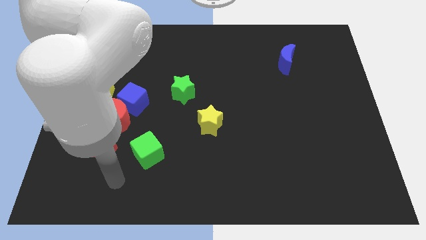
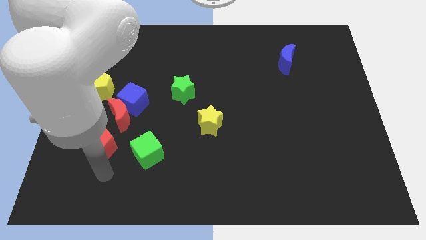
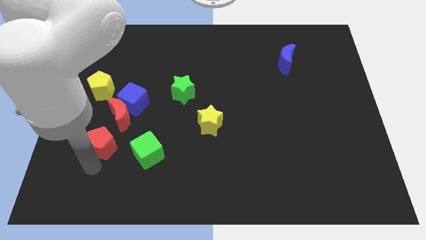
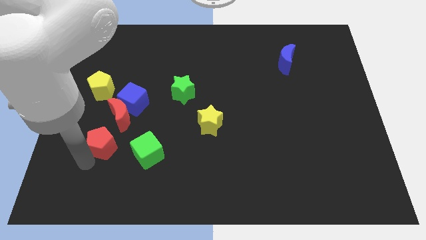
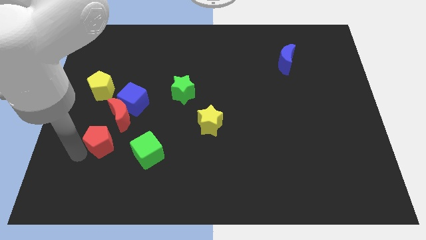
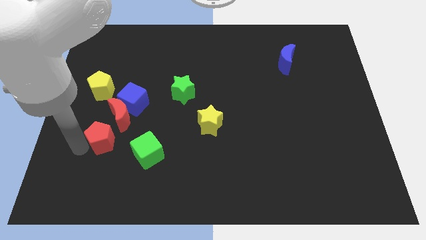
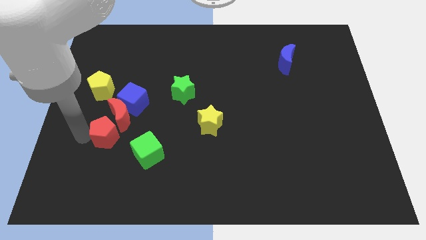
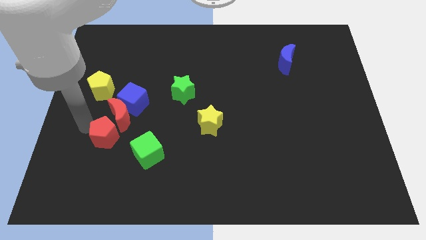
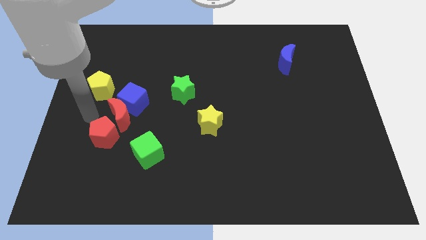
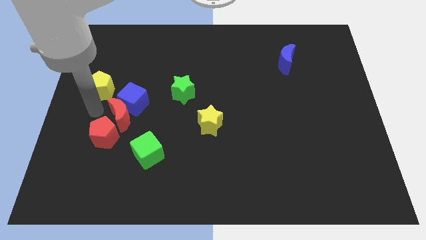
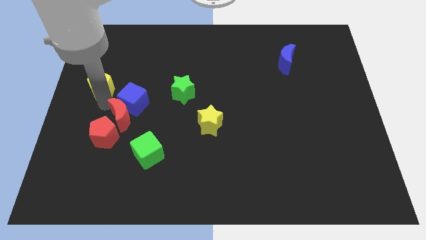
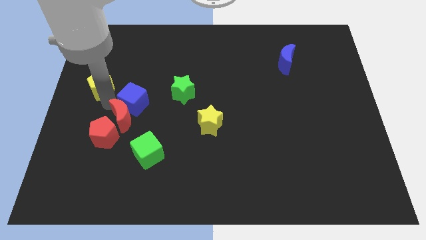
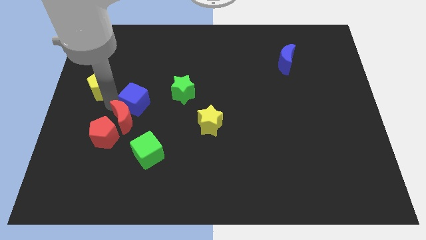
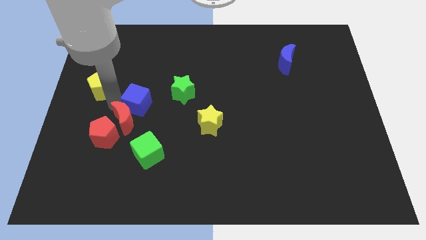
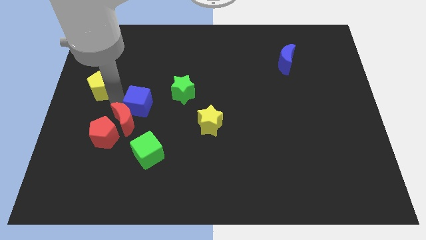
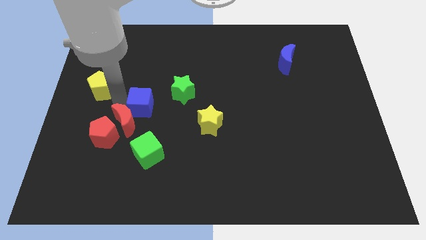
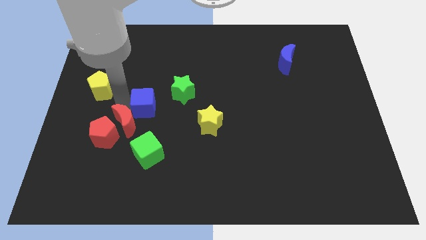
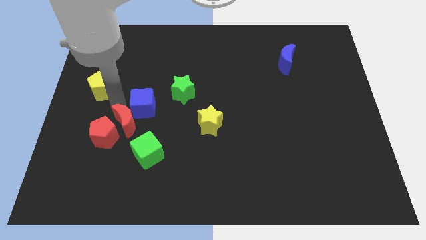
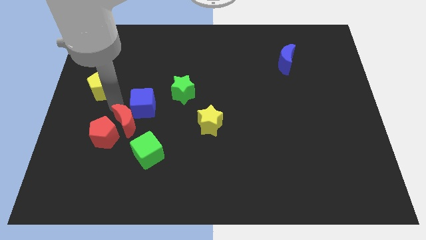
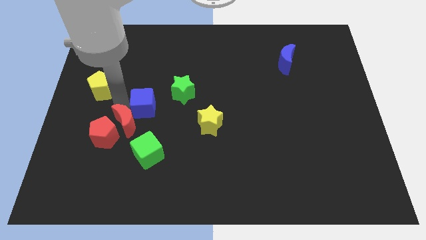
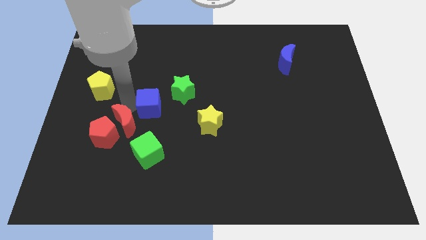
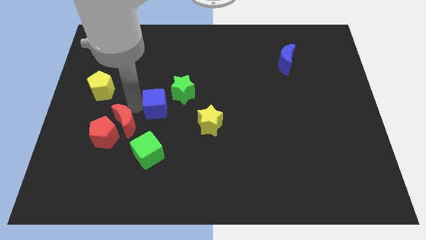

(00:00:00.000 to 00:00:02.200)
pull the blue cube apart from the red moon and yellow pentagon

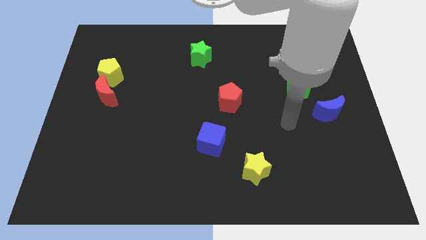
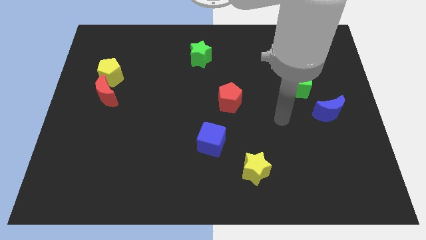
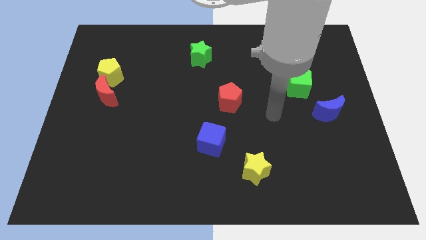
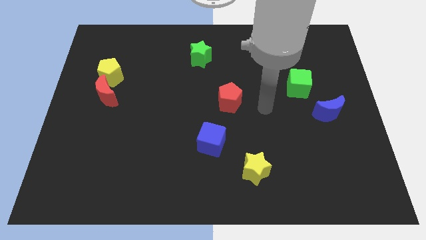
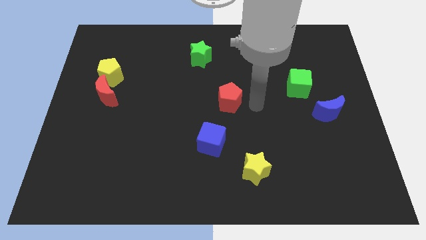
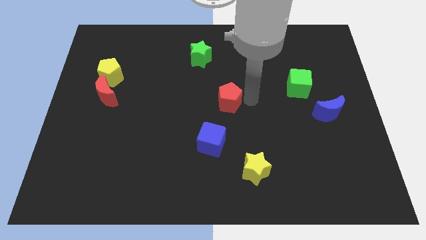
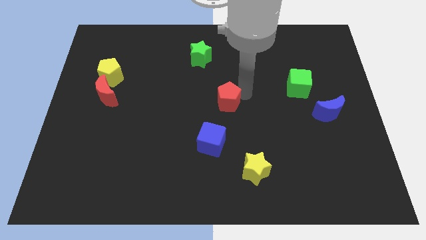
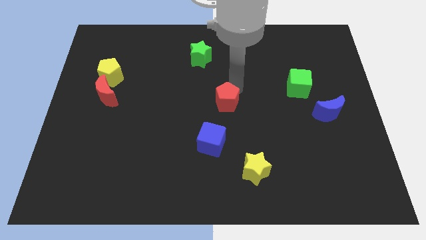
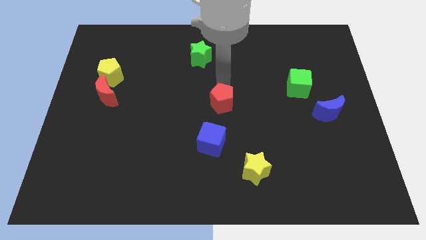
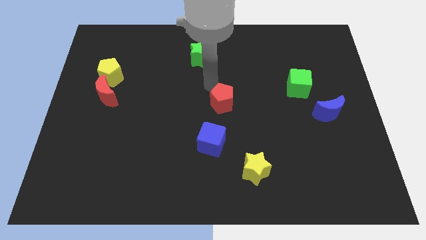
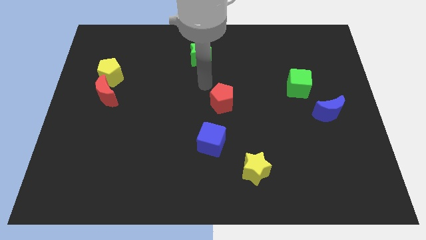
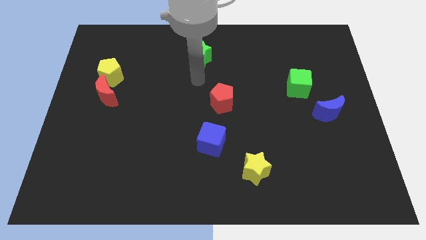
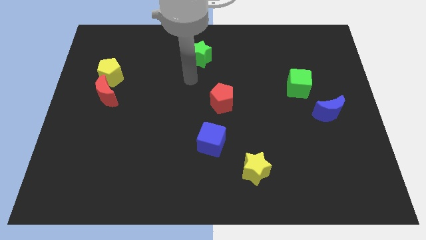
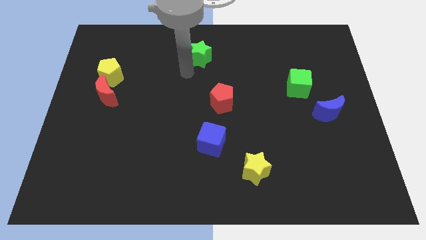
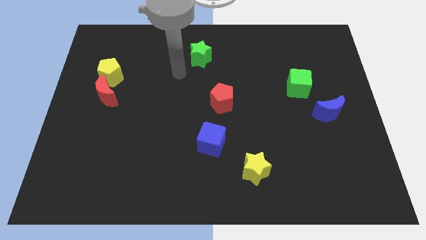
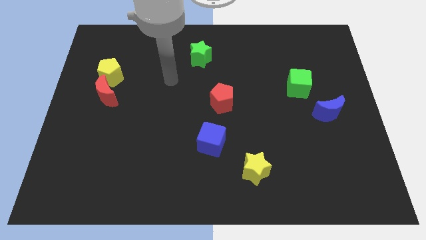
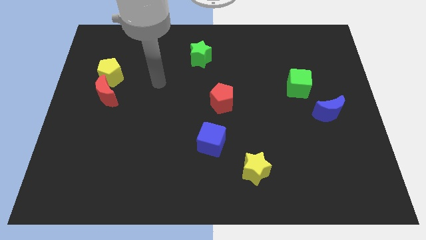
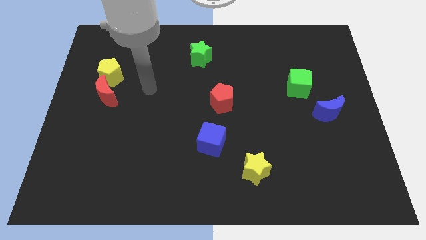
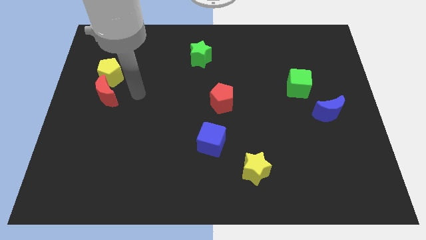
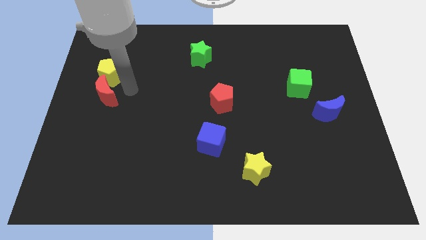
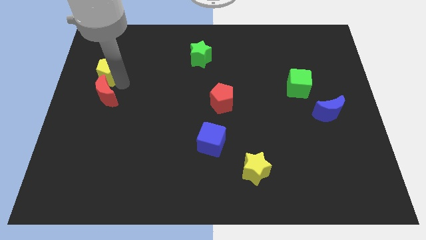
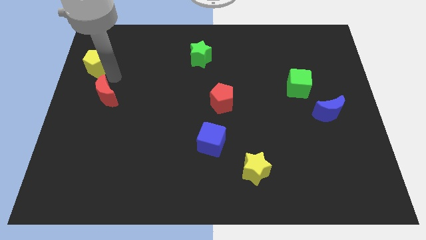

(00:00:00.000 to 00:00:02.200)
separate the red moon from the yellow pentagon

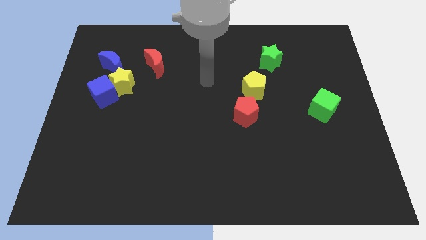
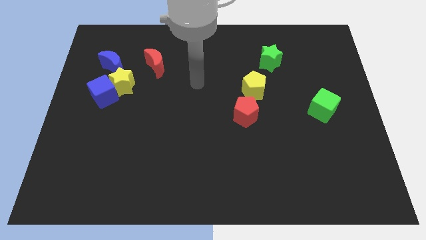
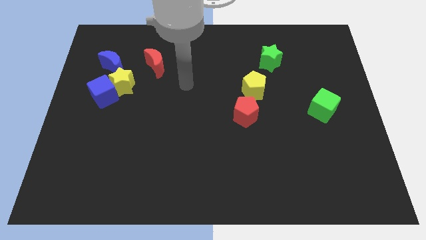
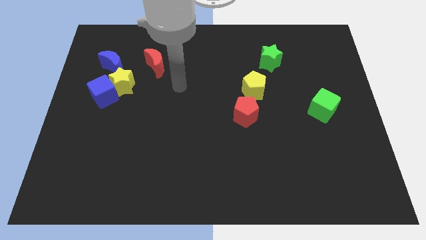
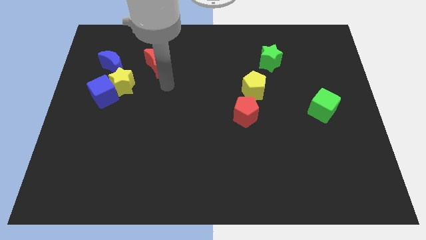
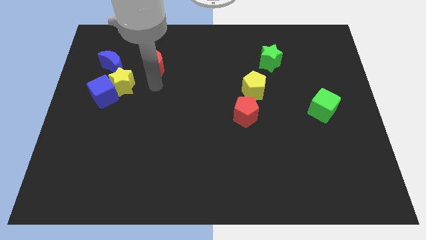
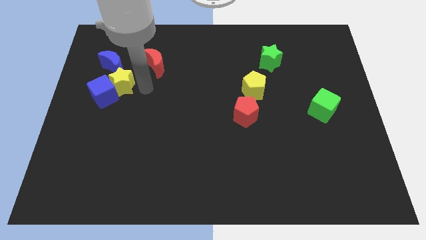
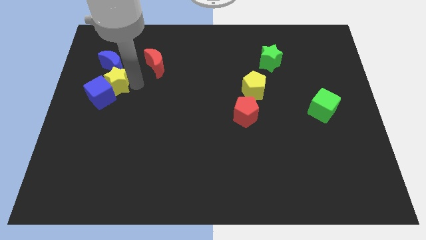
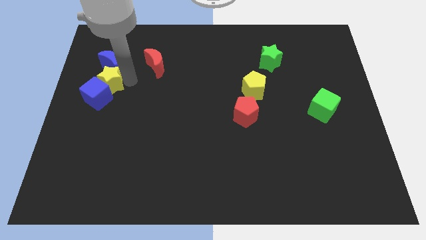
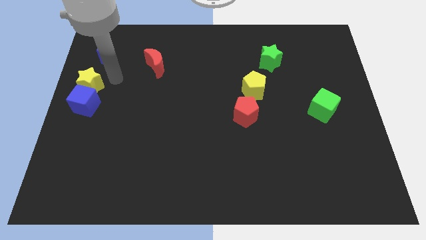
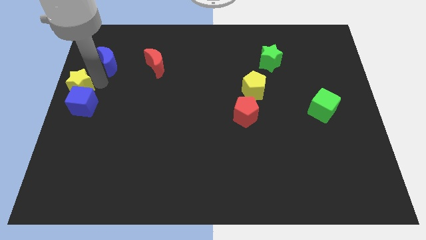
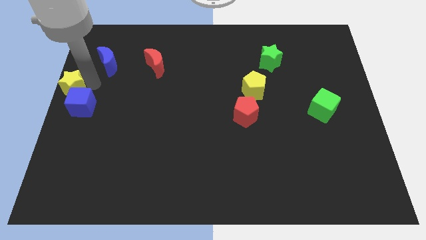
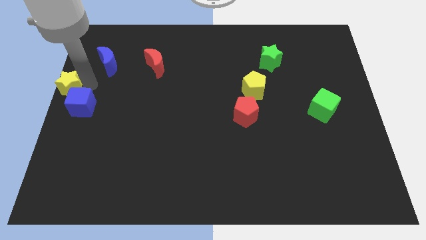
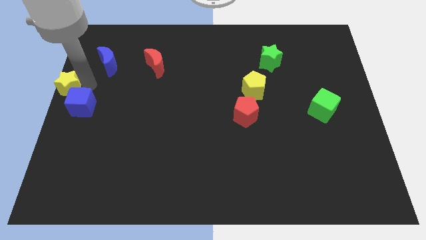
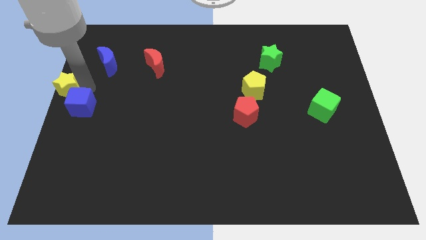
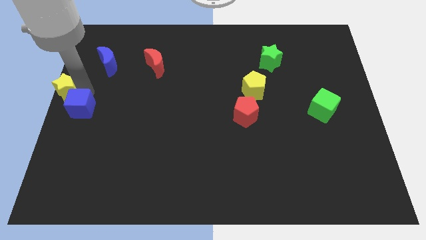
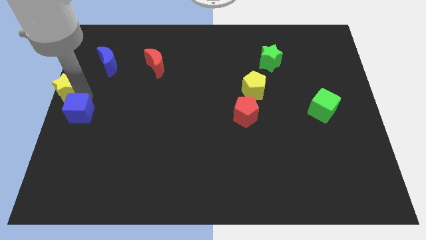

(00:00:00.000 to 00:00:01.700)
separate the blue cube from the yellow star and blue moon

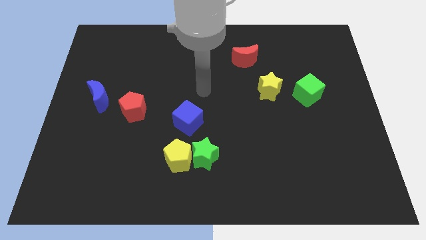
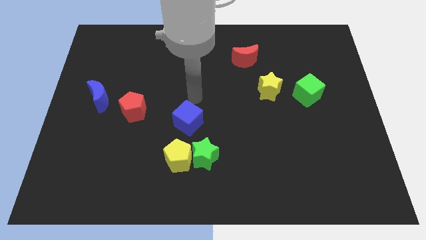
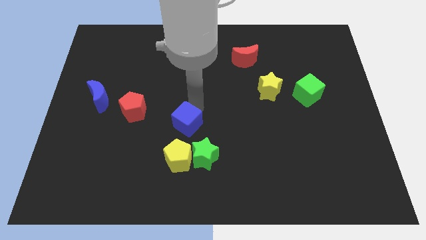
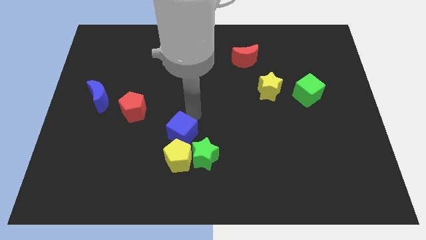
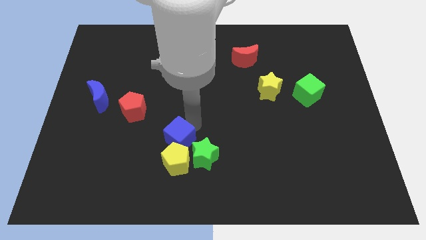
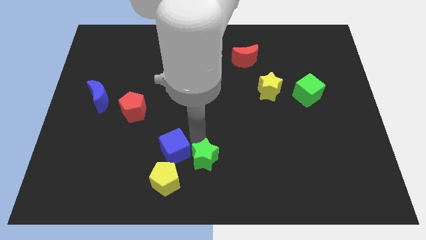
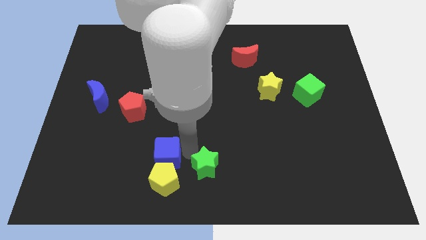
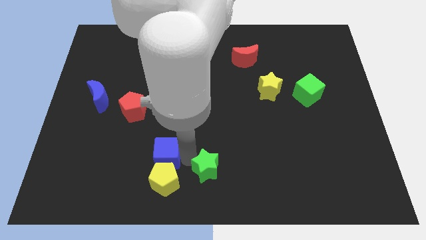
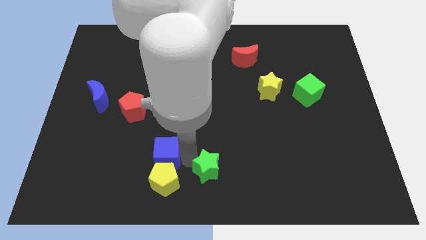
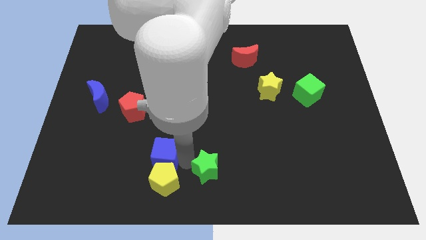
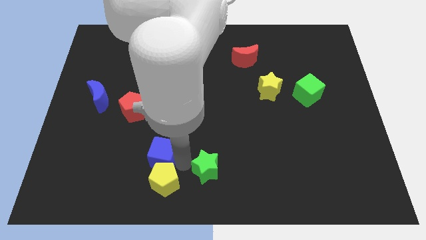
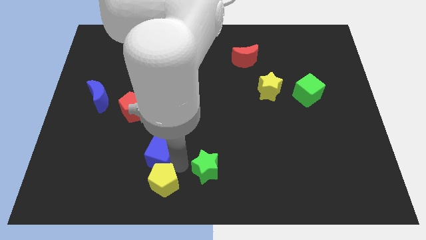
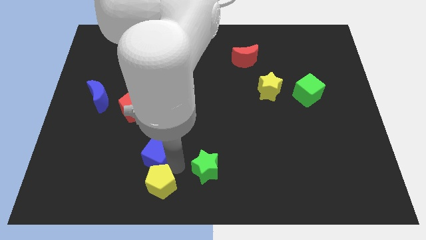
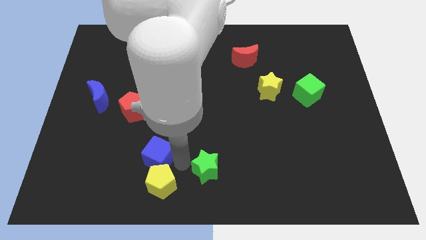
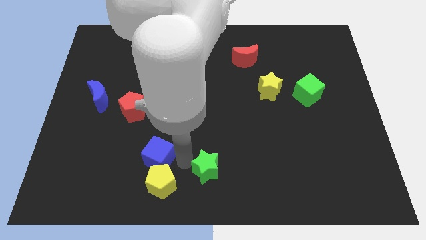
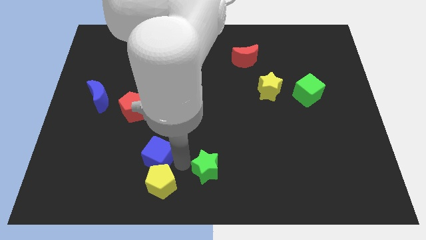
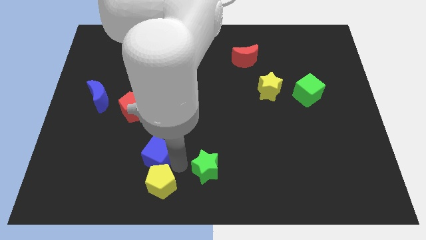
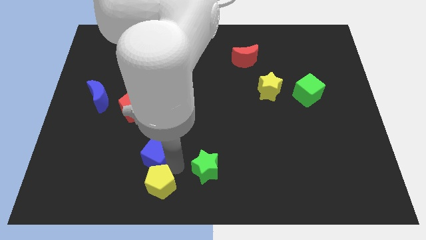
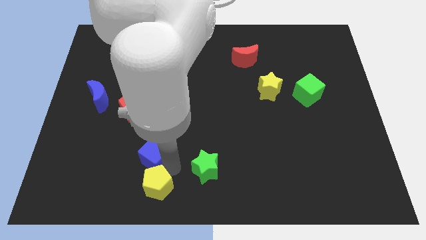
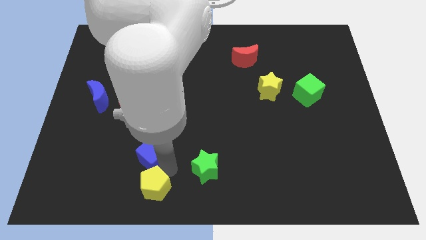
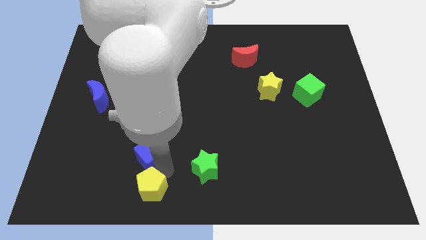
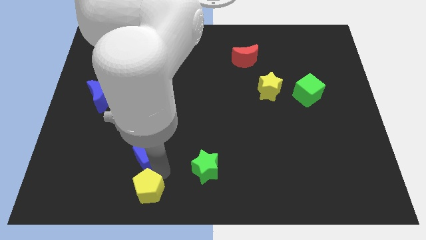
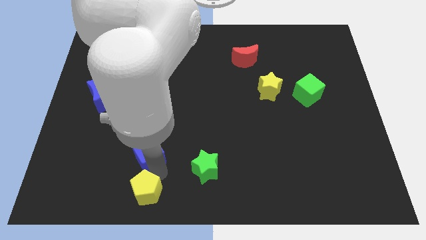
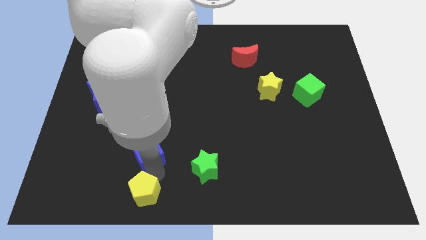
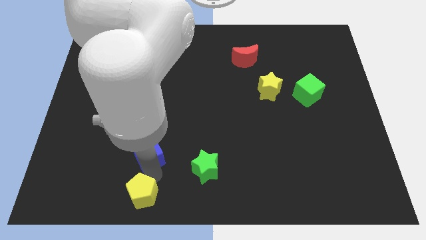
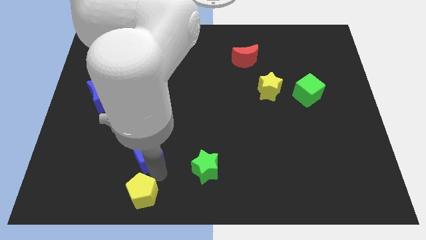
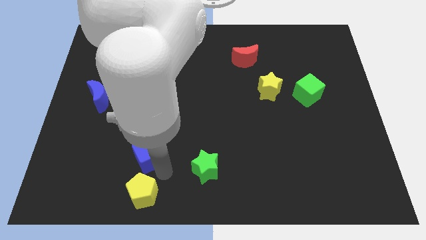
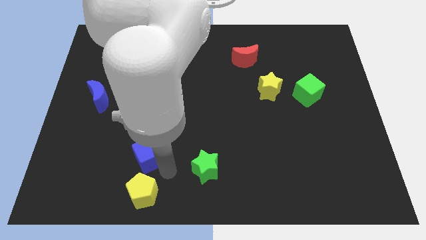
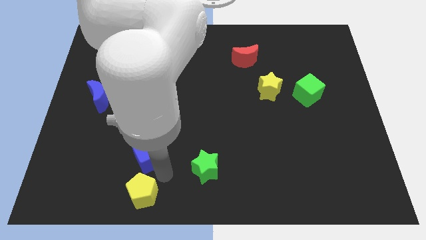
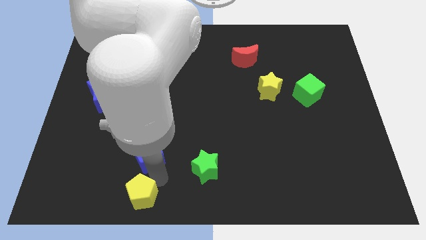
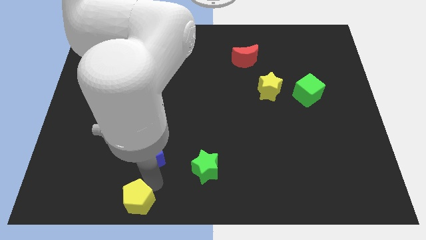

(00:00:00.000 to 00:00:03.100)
pull the yellow pentagon apart from the green star and blue cube

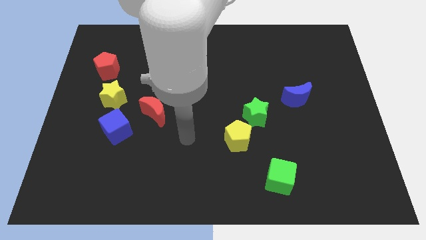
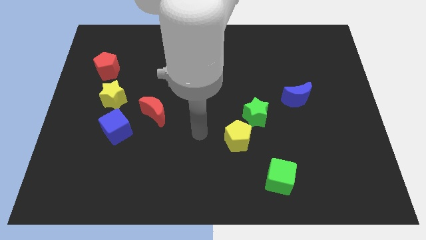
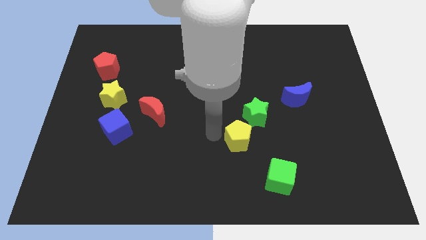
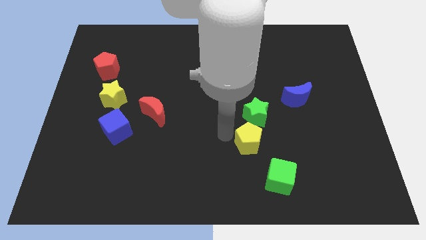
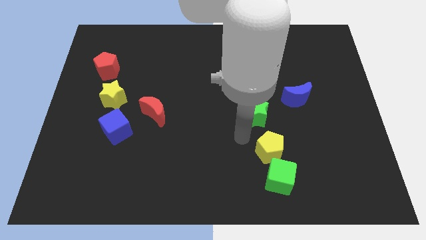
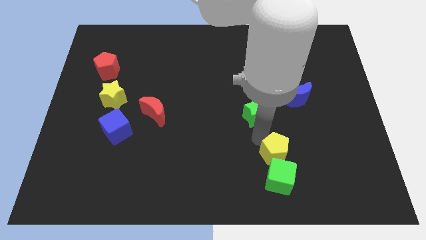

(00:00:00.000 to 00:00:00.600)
pull the green star apart from the yellow pentagon
